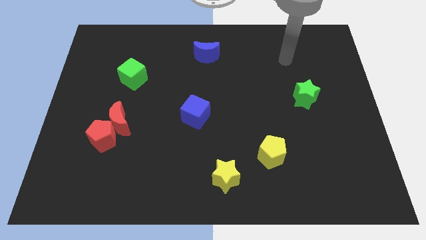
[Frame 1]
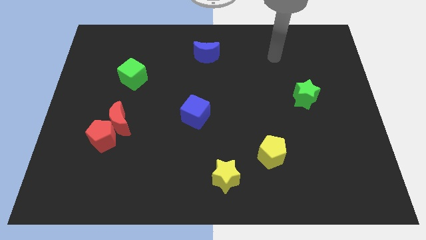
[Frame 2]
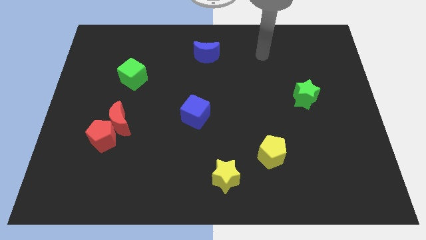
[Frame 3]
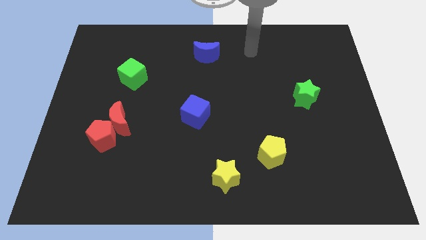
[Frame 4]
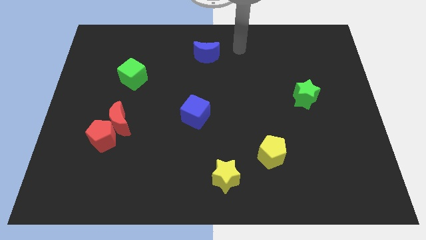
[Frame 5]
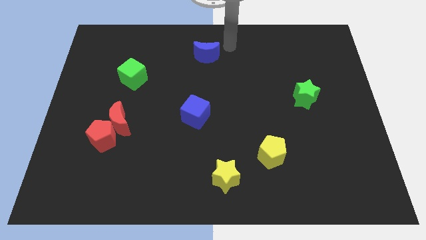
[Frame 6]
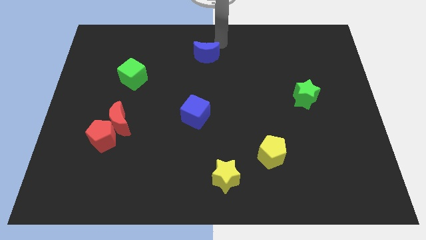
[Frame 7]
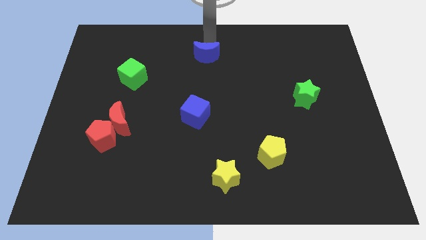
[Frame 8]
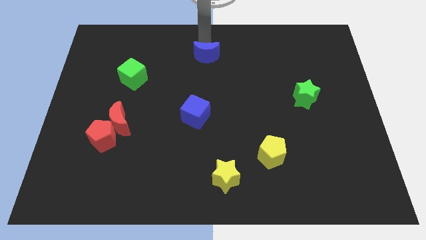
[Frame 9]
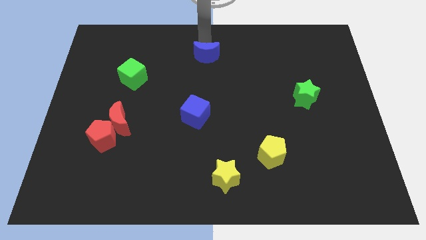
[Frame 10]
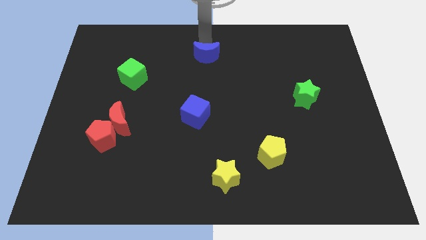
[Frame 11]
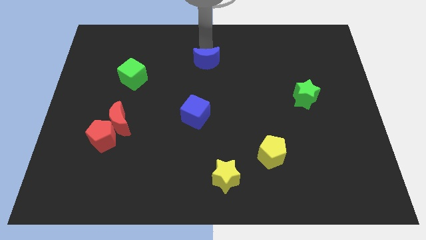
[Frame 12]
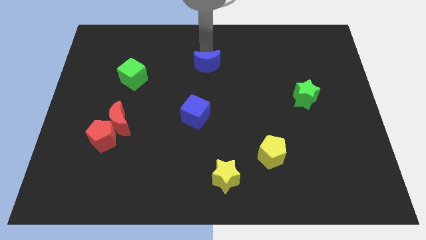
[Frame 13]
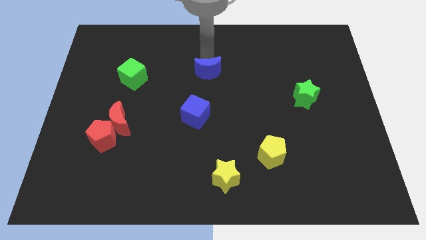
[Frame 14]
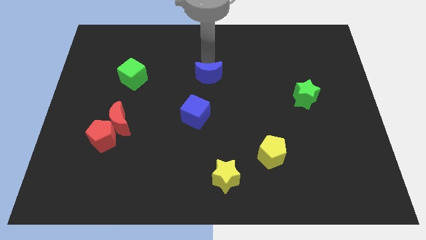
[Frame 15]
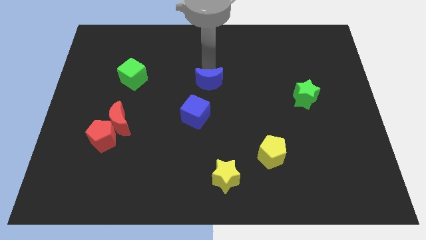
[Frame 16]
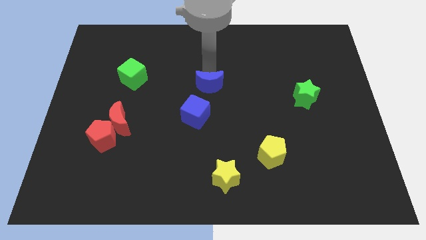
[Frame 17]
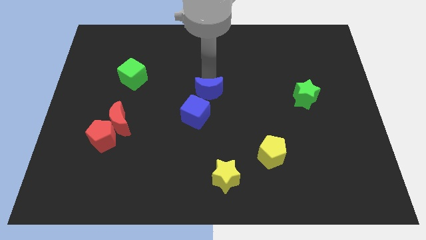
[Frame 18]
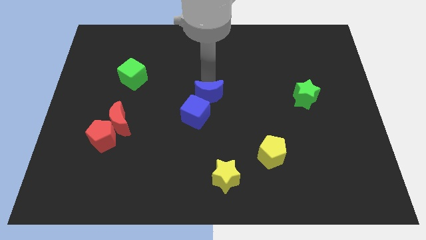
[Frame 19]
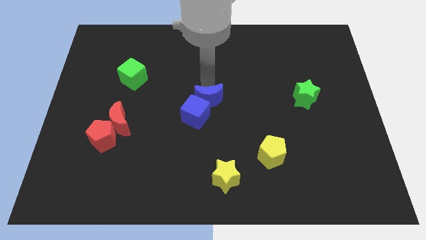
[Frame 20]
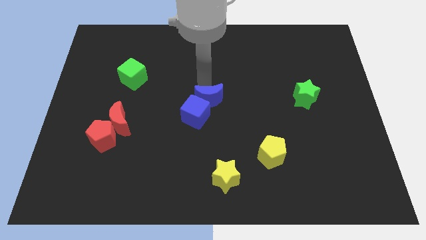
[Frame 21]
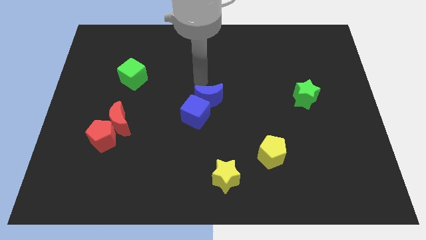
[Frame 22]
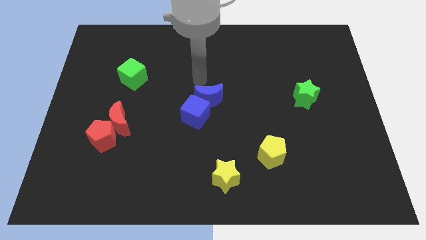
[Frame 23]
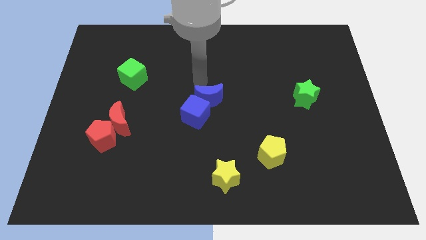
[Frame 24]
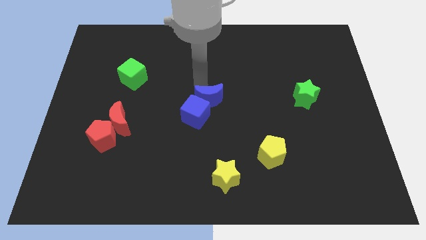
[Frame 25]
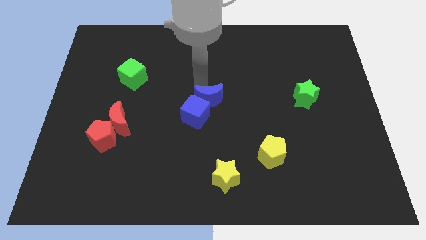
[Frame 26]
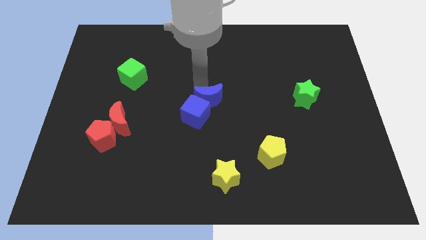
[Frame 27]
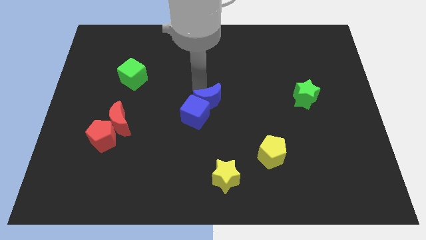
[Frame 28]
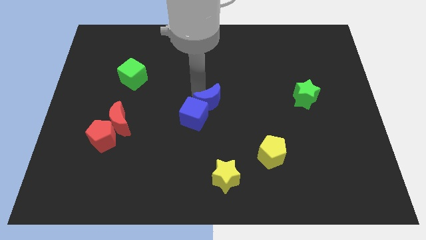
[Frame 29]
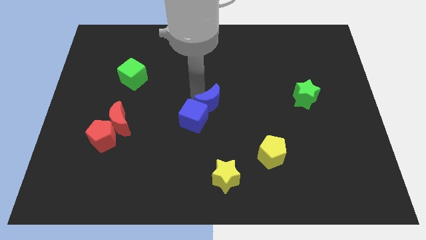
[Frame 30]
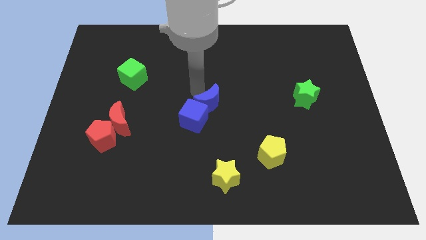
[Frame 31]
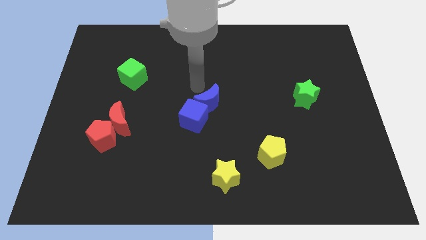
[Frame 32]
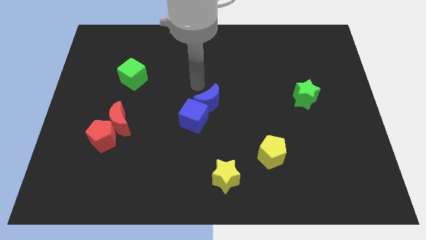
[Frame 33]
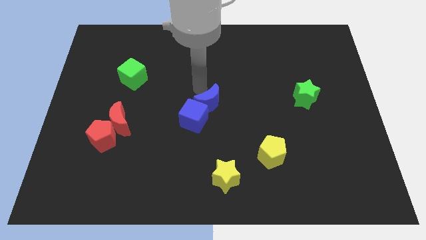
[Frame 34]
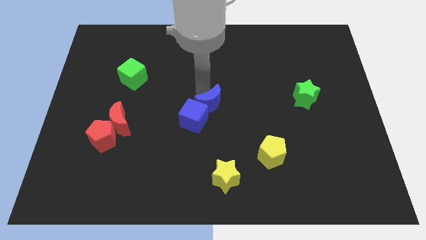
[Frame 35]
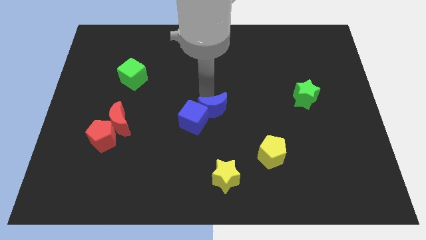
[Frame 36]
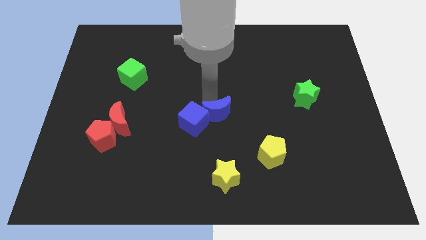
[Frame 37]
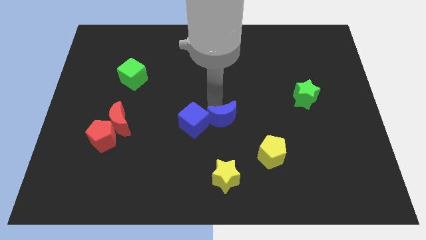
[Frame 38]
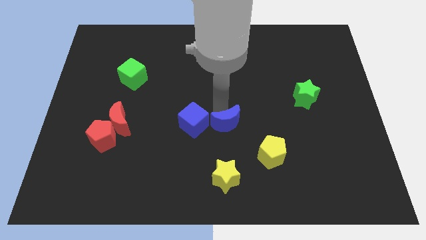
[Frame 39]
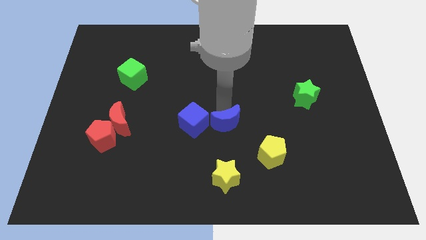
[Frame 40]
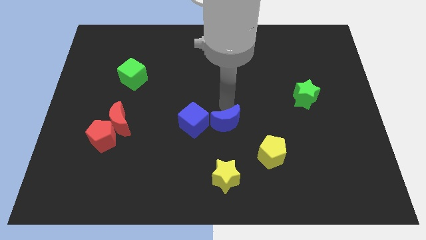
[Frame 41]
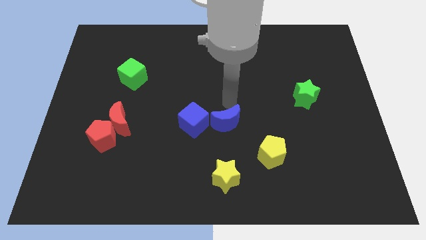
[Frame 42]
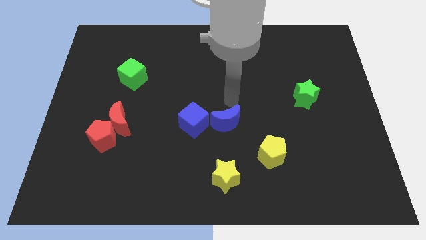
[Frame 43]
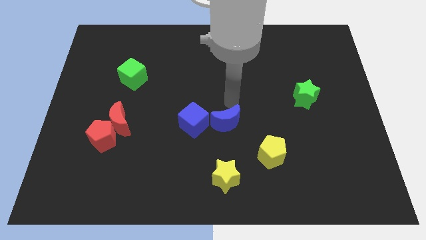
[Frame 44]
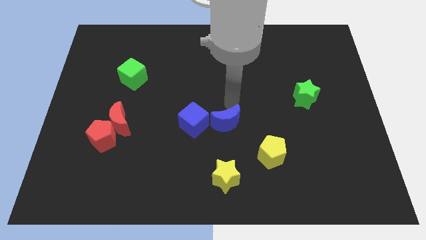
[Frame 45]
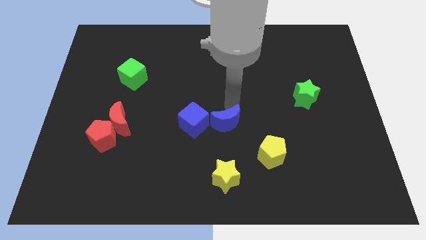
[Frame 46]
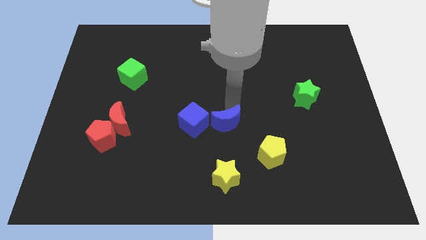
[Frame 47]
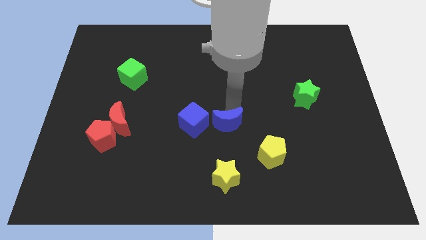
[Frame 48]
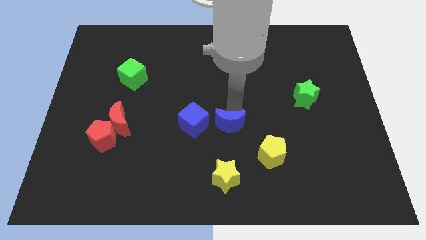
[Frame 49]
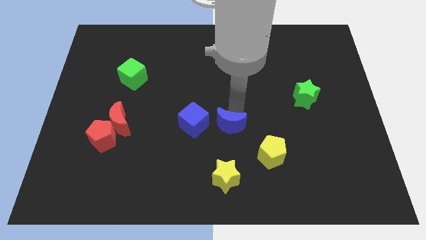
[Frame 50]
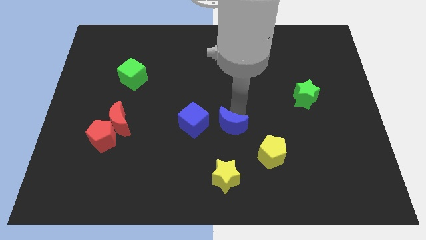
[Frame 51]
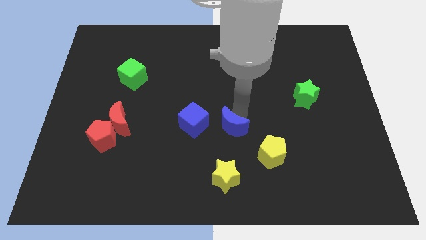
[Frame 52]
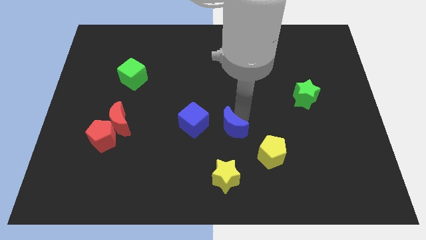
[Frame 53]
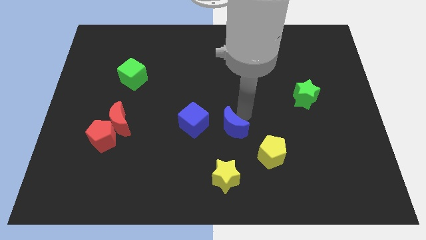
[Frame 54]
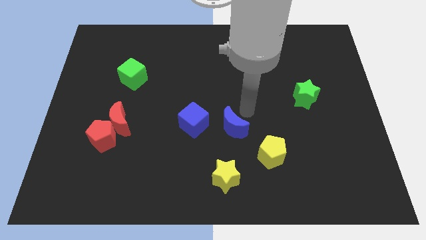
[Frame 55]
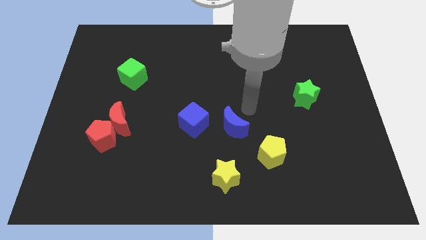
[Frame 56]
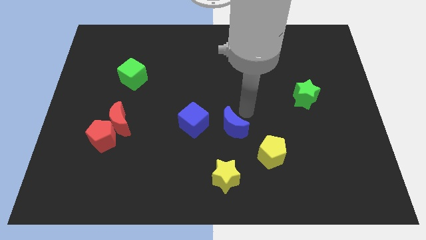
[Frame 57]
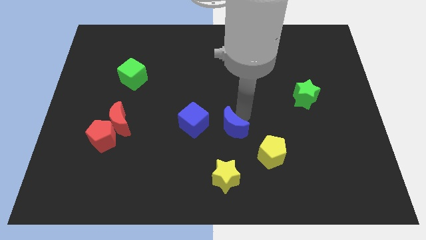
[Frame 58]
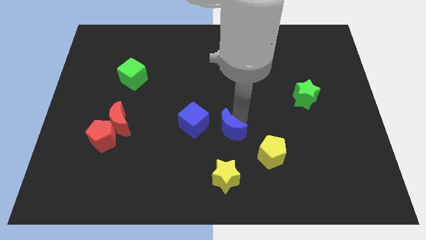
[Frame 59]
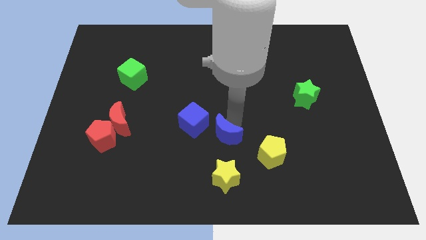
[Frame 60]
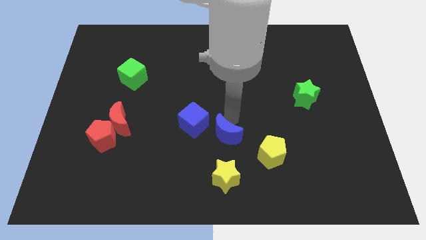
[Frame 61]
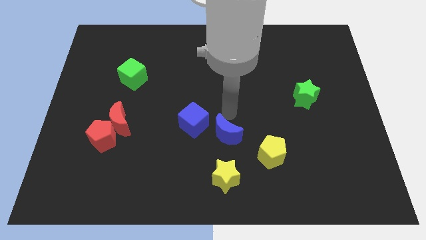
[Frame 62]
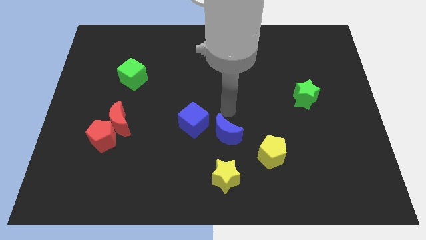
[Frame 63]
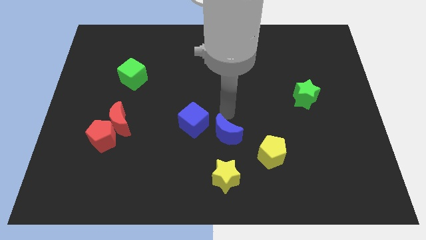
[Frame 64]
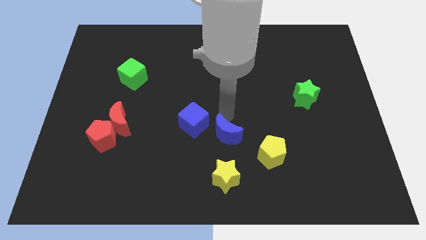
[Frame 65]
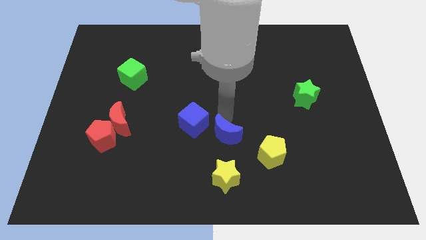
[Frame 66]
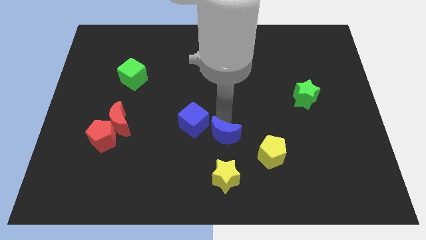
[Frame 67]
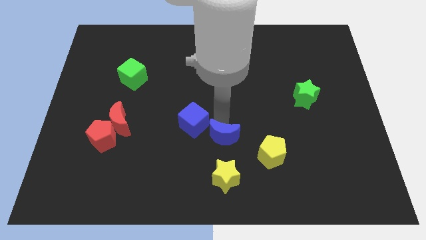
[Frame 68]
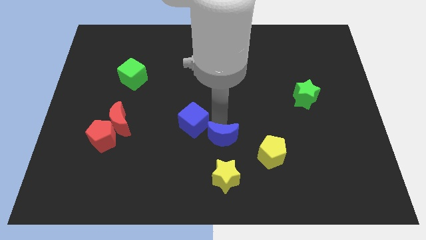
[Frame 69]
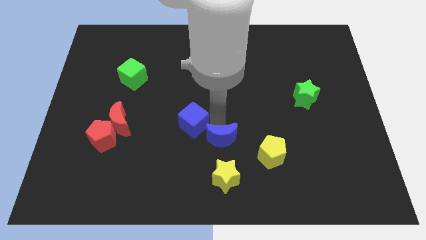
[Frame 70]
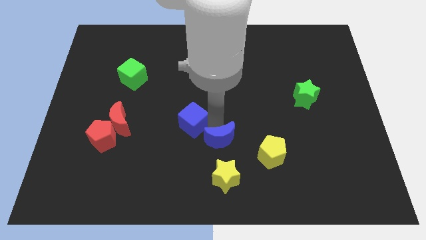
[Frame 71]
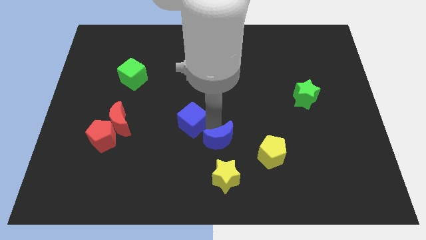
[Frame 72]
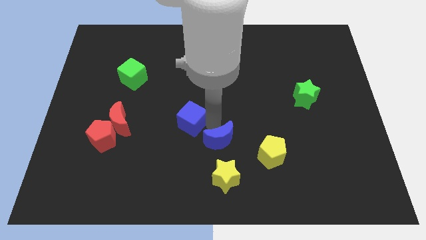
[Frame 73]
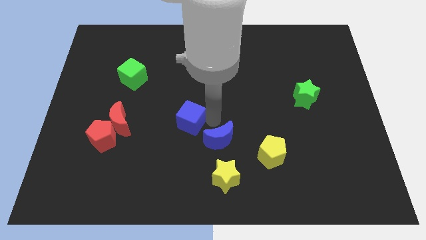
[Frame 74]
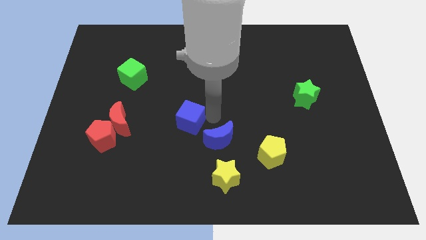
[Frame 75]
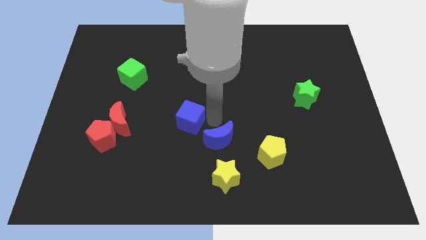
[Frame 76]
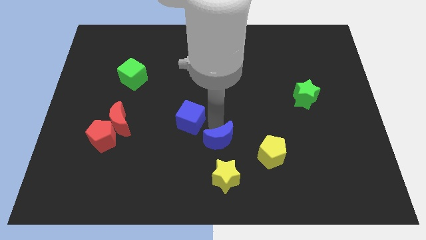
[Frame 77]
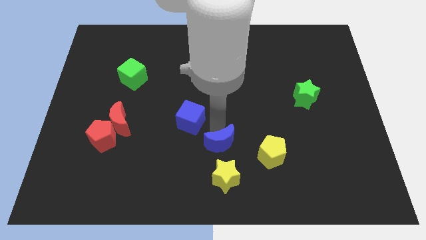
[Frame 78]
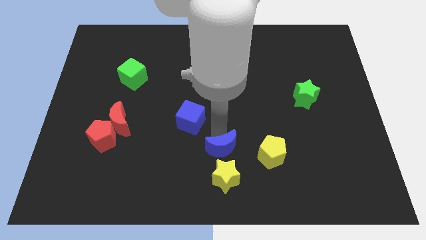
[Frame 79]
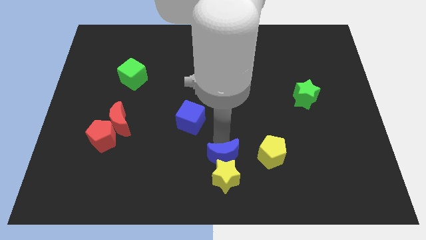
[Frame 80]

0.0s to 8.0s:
push the blue moon towards the yellow star
